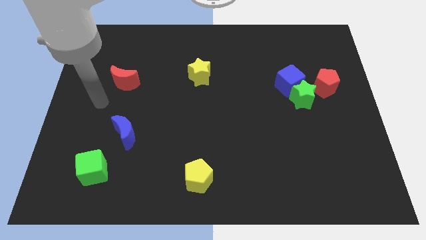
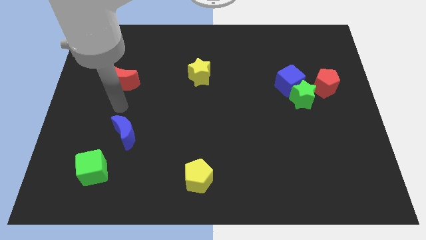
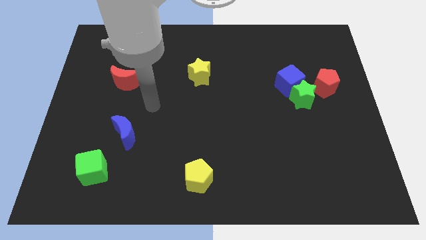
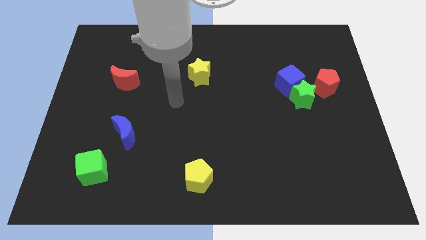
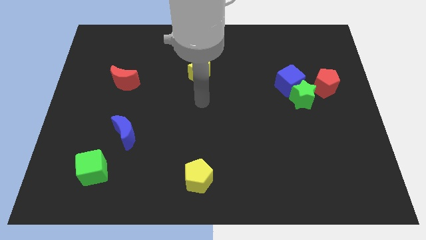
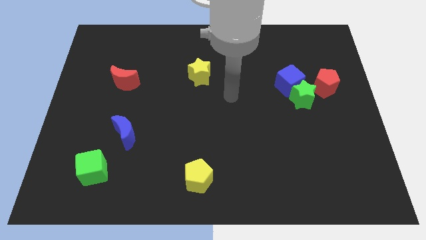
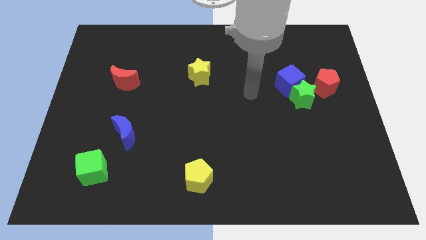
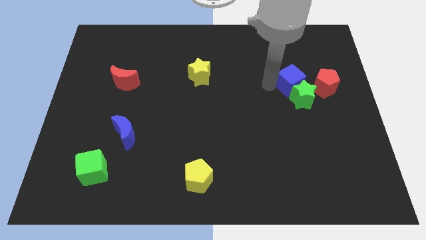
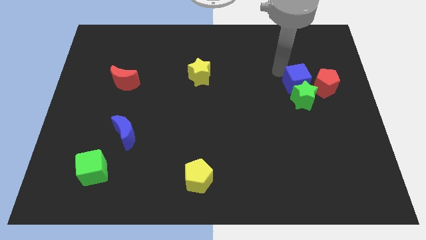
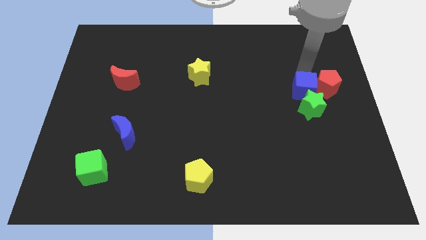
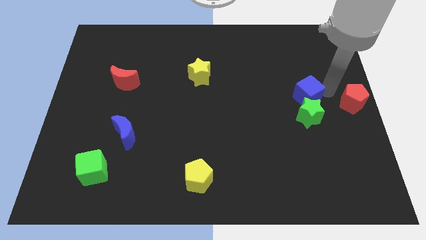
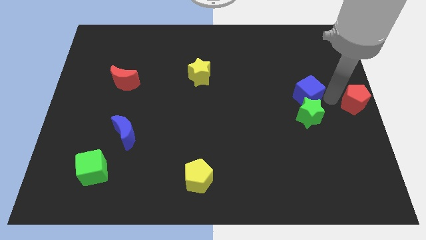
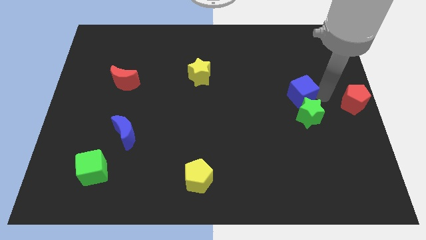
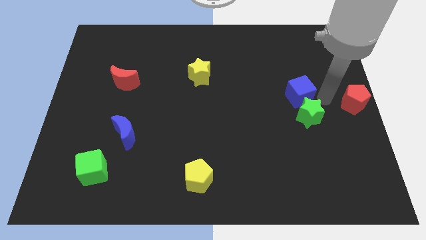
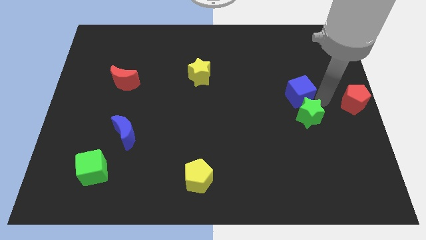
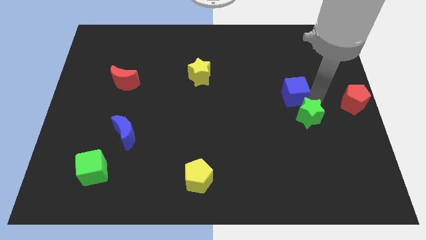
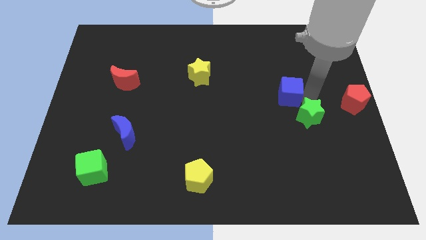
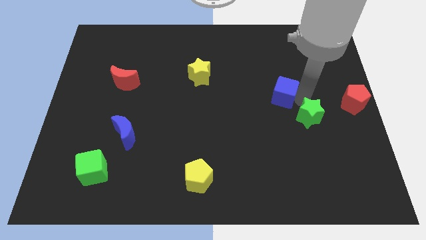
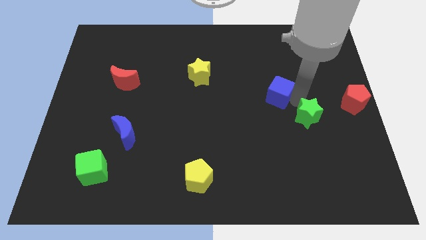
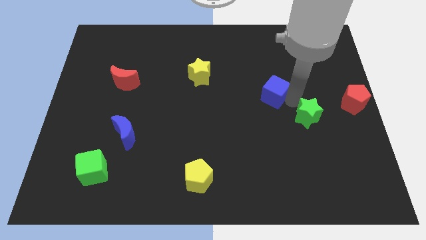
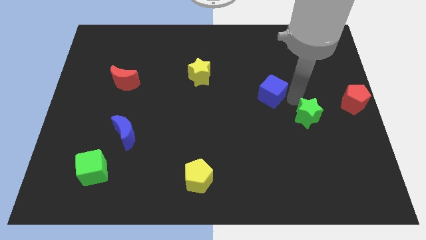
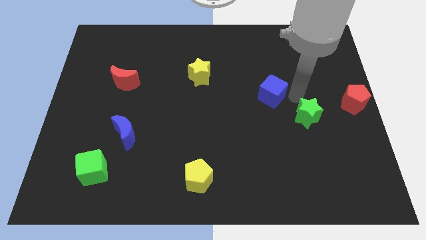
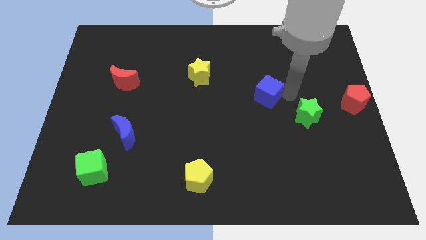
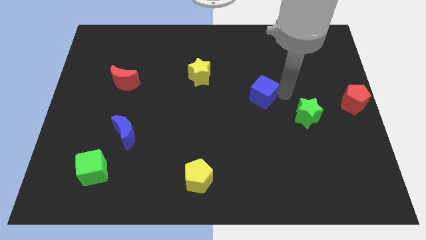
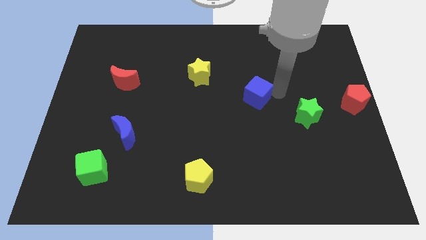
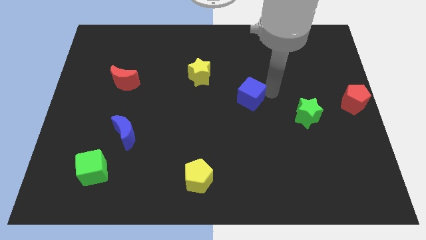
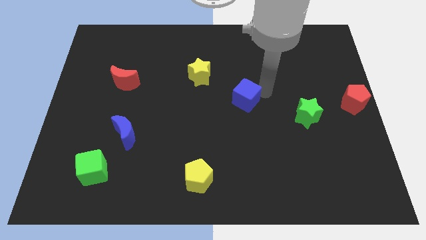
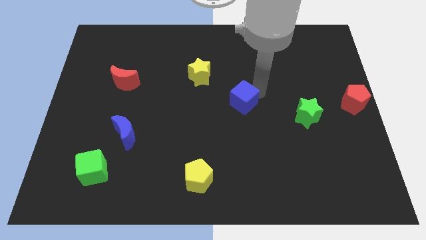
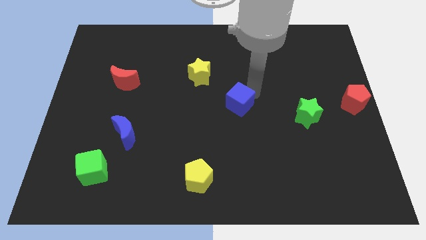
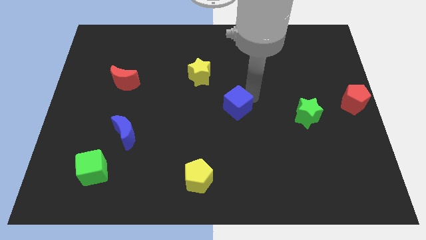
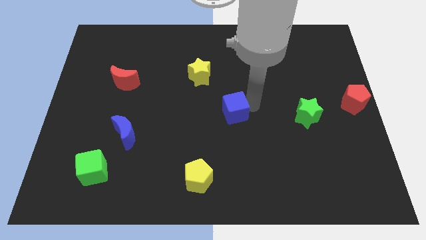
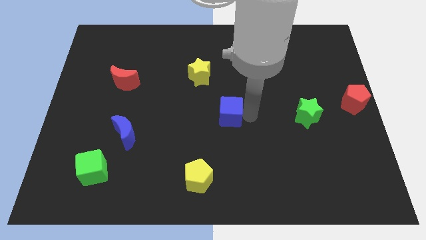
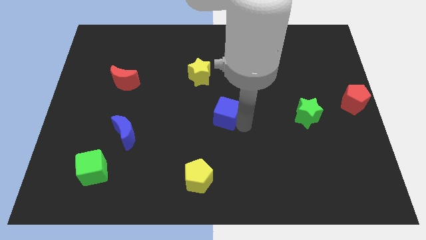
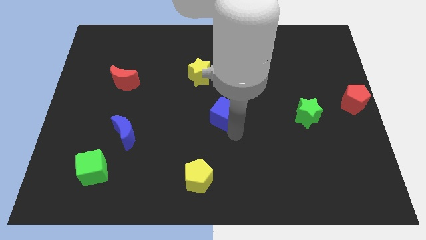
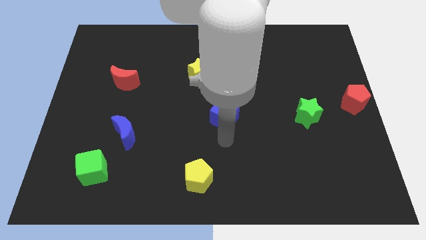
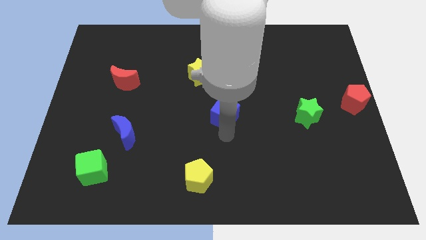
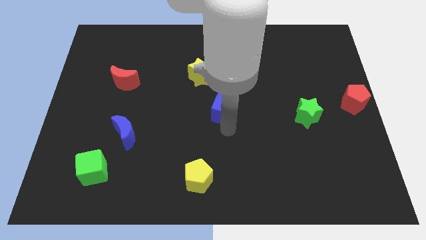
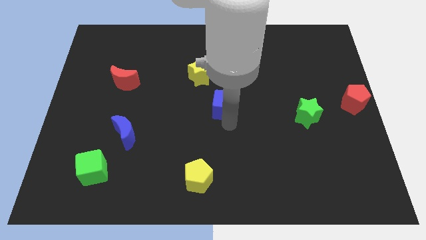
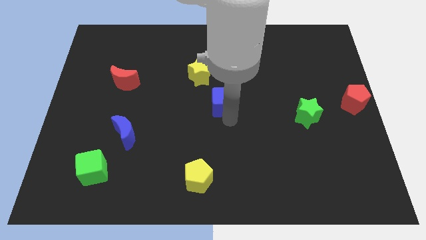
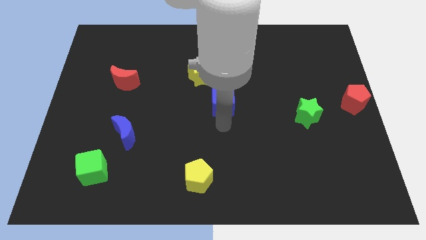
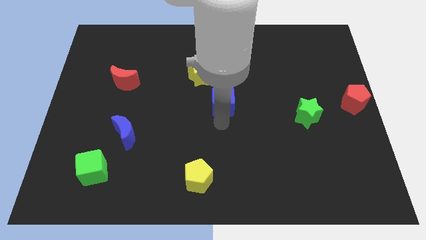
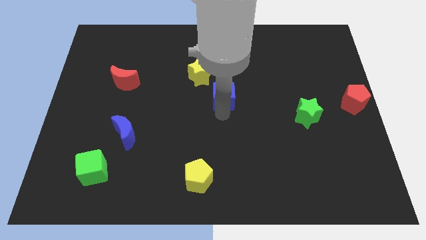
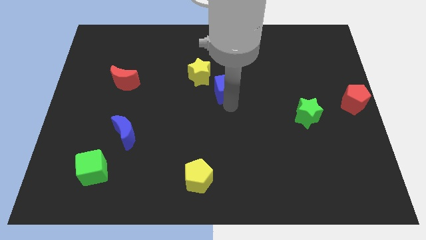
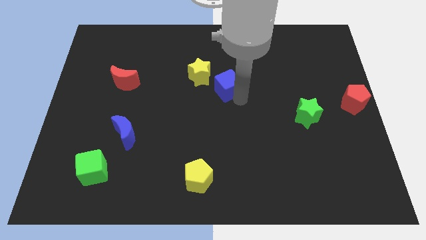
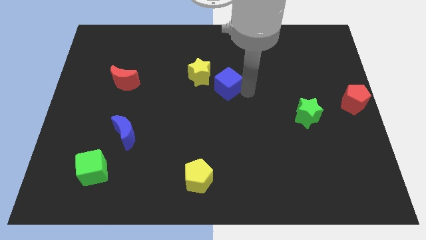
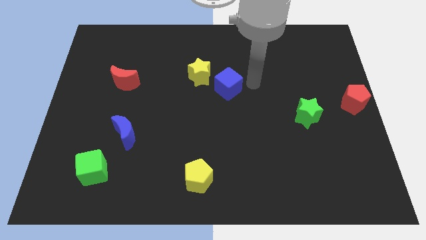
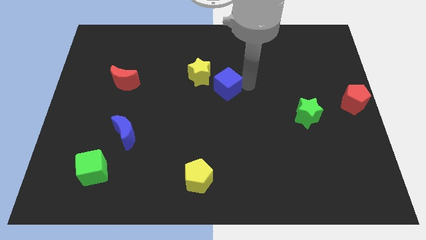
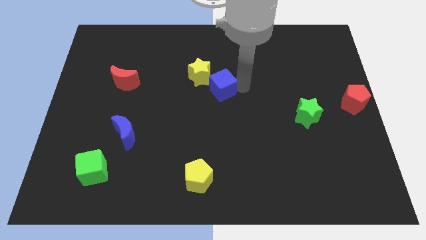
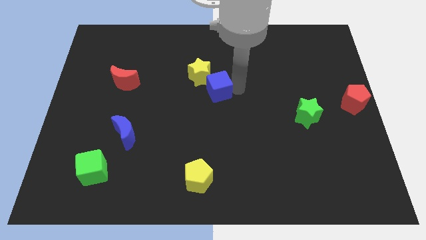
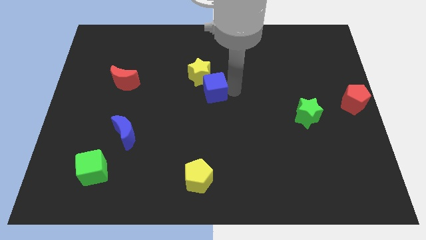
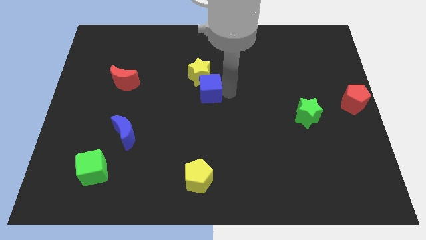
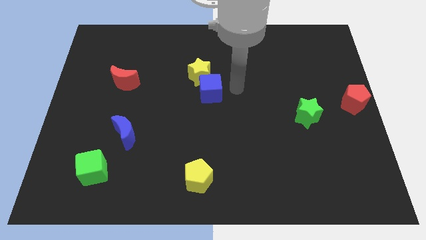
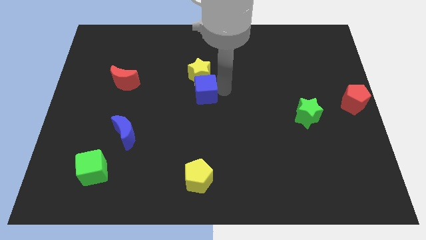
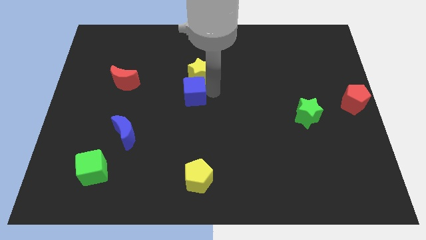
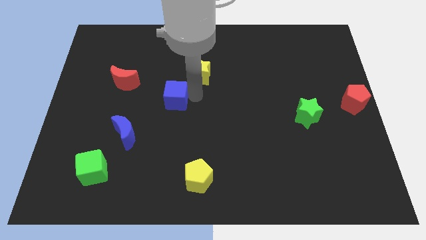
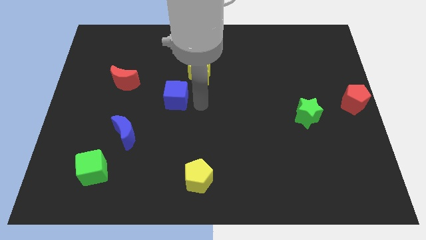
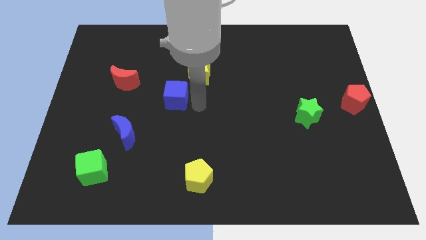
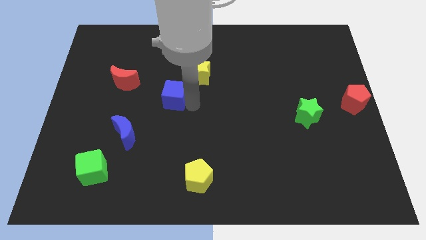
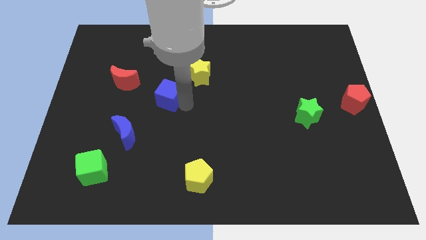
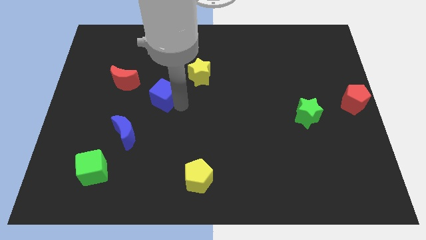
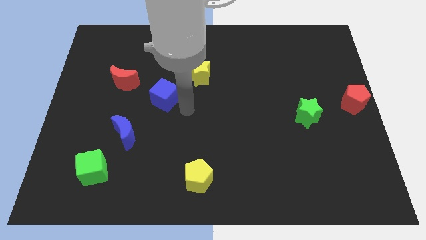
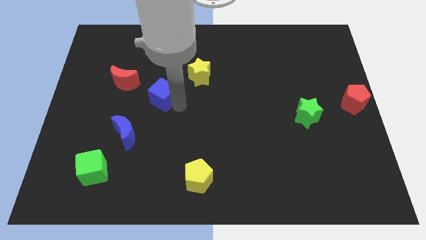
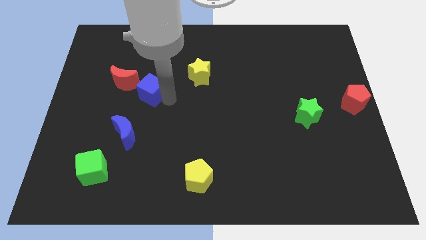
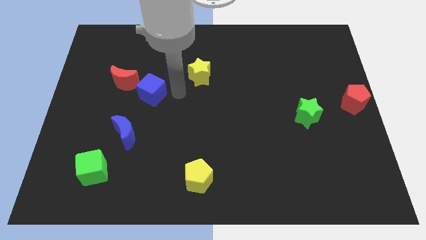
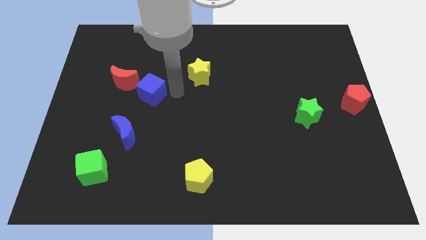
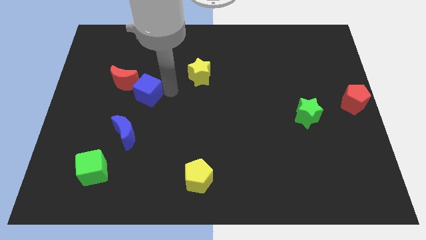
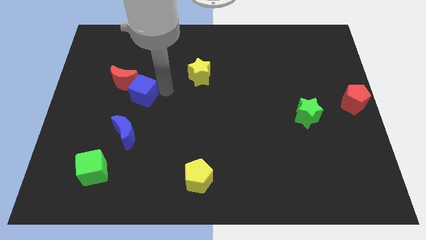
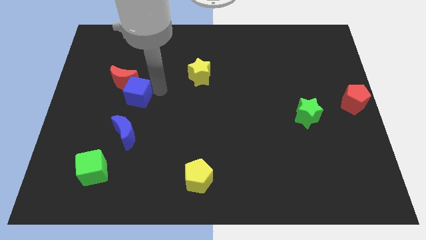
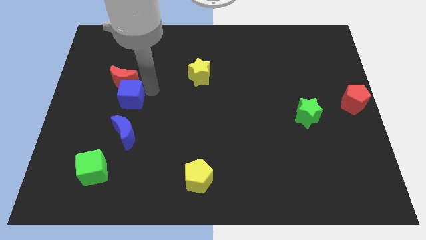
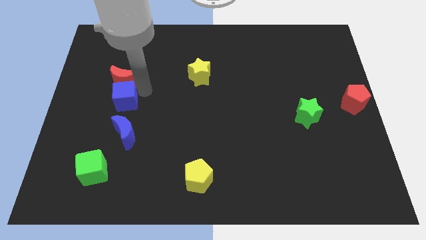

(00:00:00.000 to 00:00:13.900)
move the blue cube to the bottom left of the red moon
